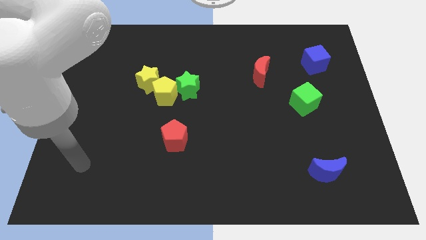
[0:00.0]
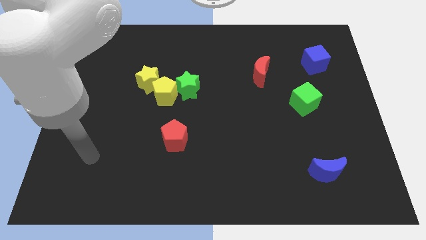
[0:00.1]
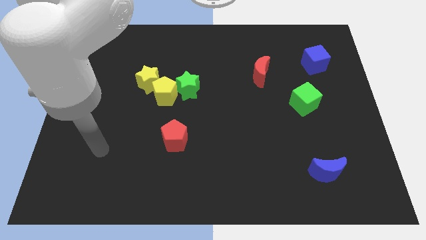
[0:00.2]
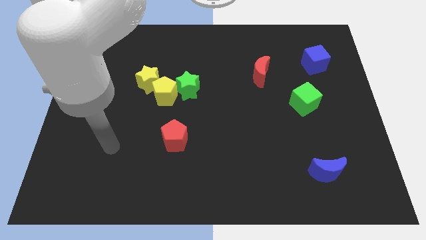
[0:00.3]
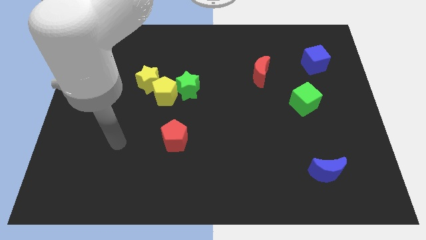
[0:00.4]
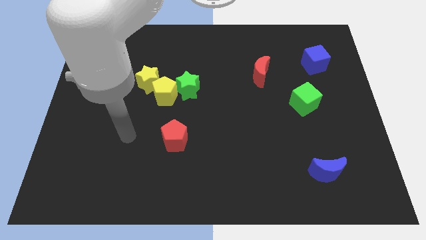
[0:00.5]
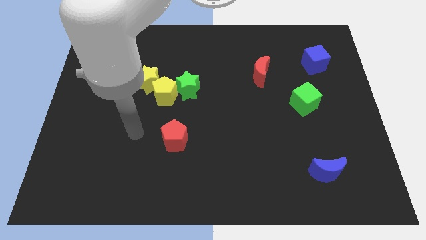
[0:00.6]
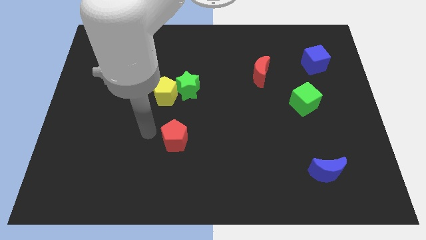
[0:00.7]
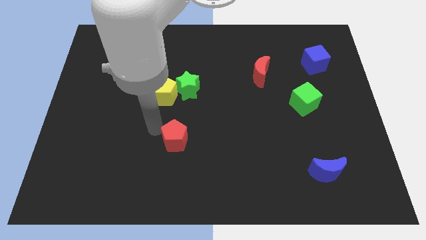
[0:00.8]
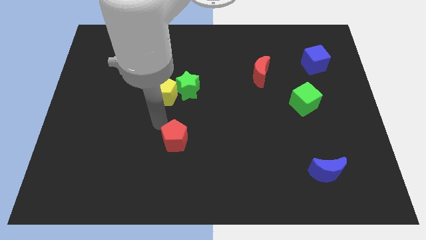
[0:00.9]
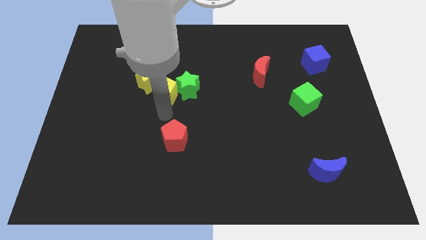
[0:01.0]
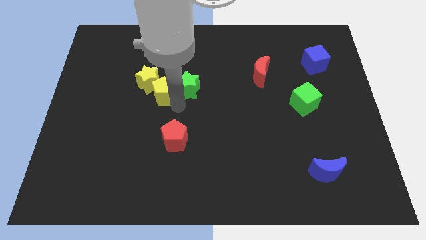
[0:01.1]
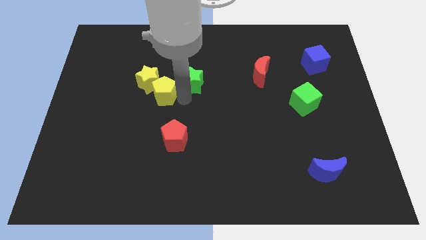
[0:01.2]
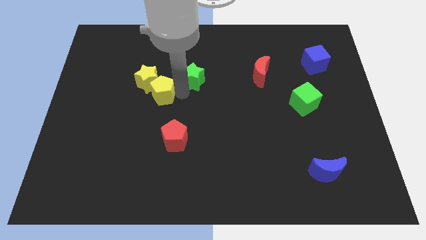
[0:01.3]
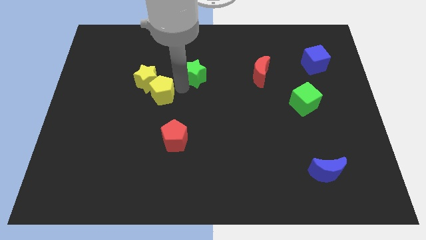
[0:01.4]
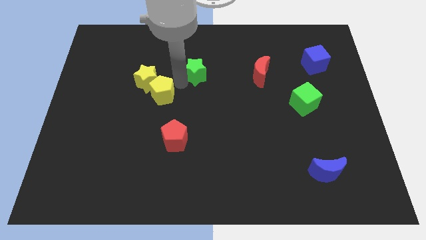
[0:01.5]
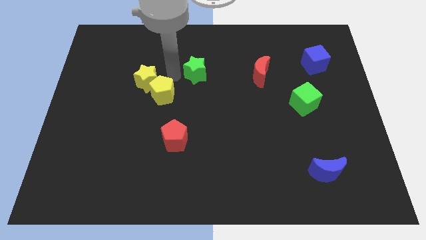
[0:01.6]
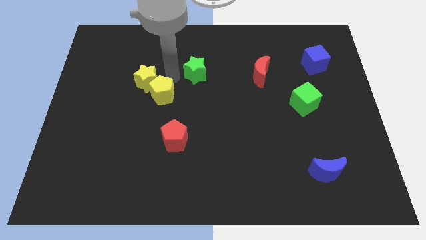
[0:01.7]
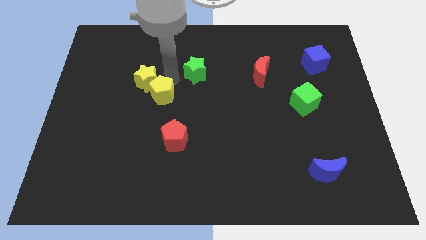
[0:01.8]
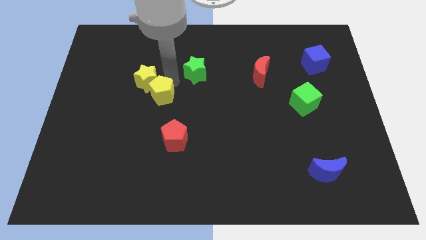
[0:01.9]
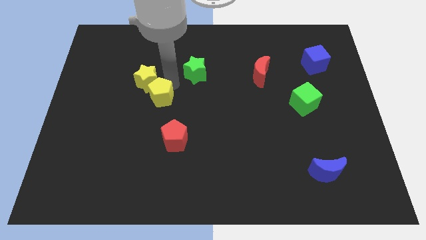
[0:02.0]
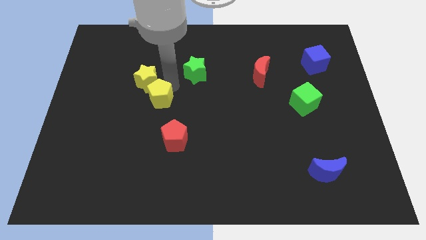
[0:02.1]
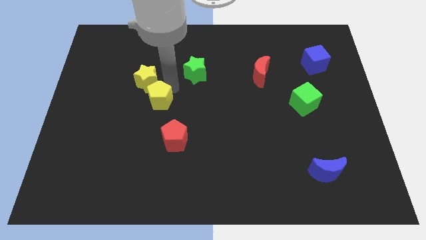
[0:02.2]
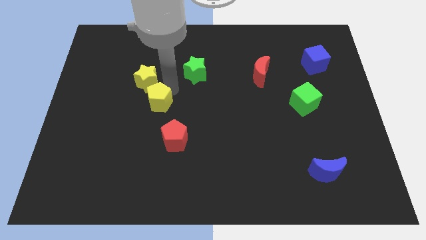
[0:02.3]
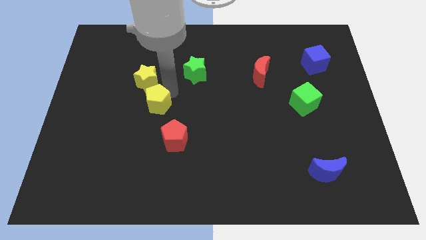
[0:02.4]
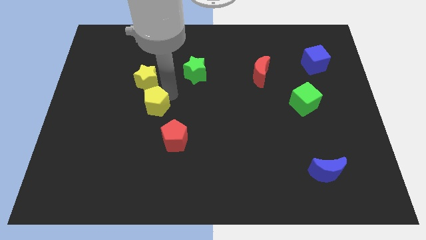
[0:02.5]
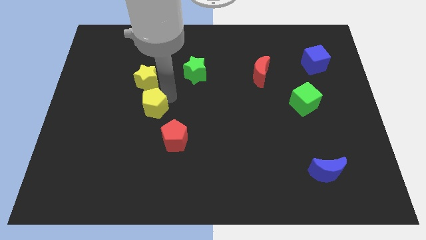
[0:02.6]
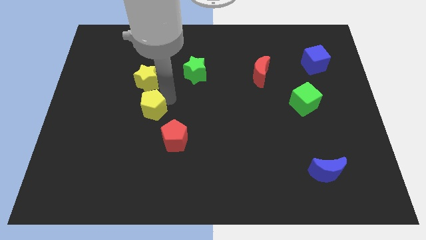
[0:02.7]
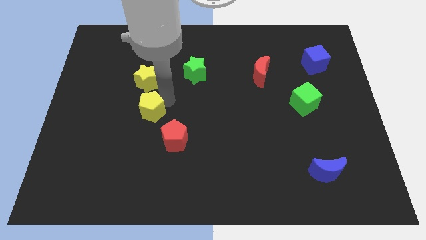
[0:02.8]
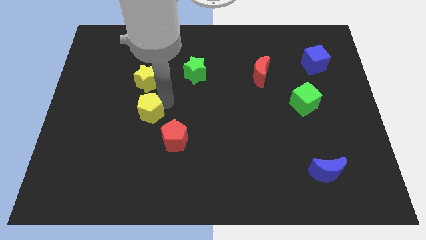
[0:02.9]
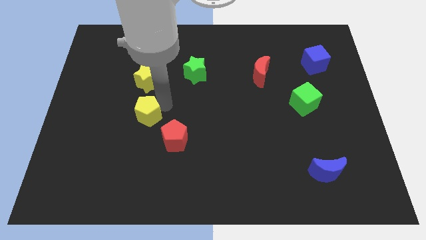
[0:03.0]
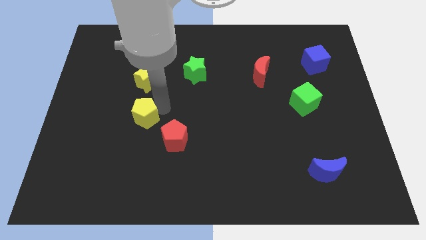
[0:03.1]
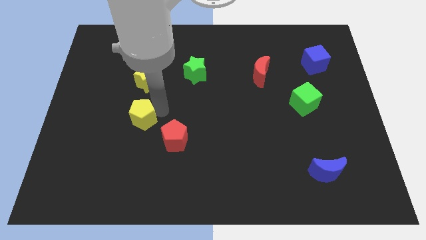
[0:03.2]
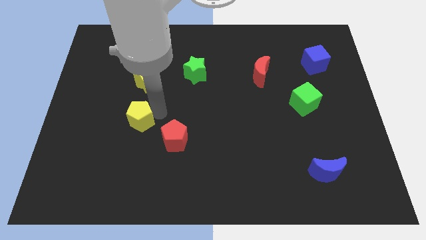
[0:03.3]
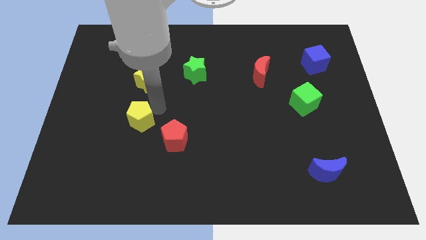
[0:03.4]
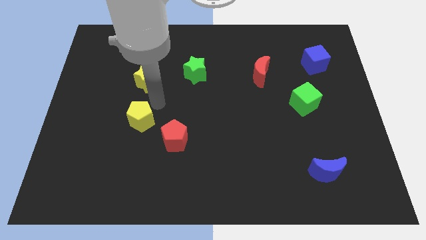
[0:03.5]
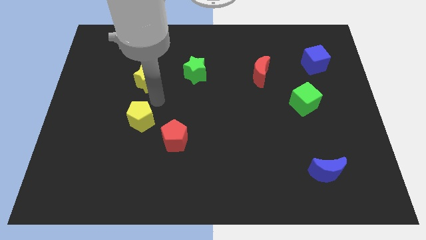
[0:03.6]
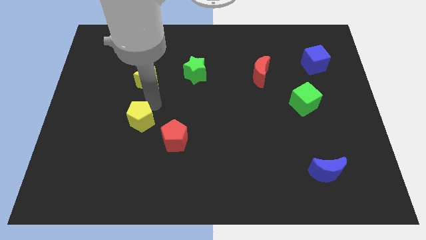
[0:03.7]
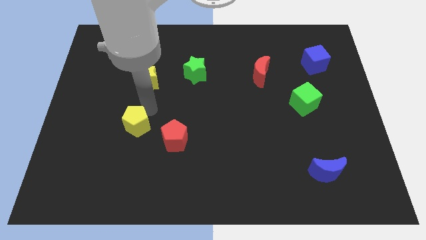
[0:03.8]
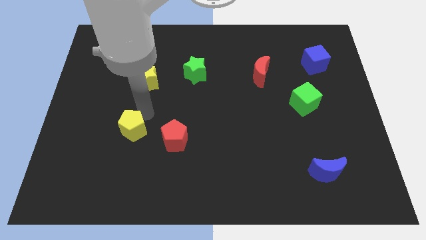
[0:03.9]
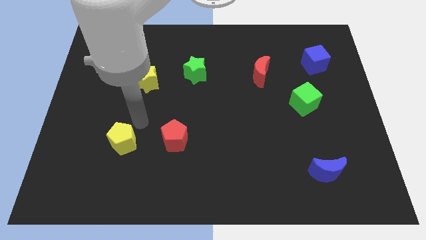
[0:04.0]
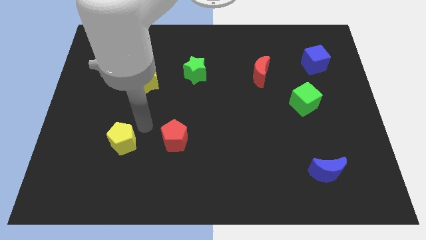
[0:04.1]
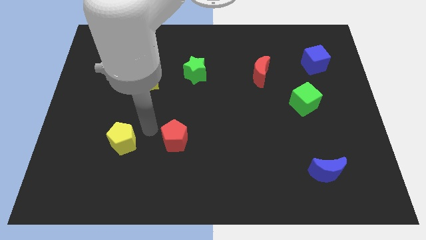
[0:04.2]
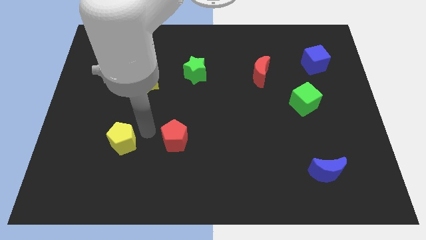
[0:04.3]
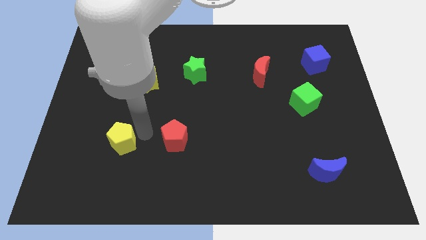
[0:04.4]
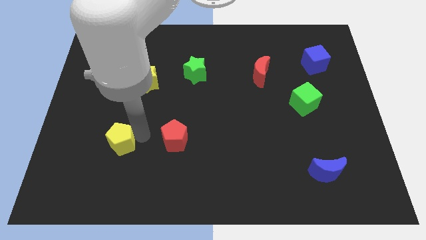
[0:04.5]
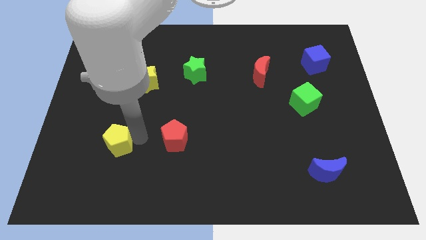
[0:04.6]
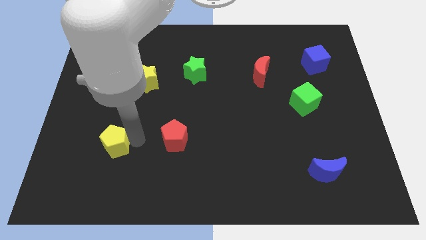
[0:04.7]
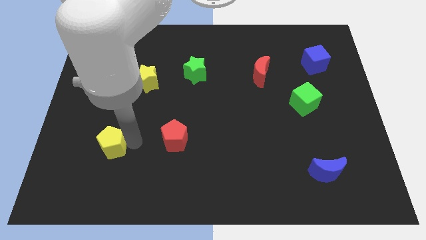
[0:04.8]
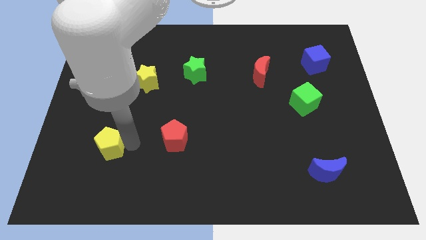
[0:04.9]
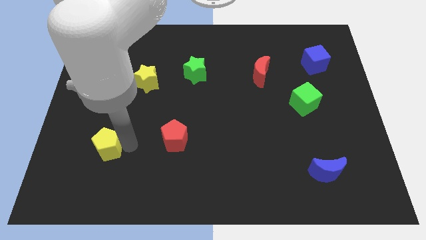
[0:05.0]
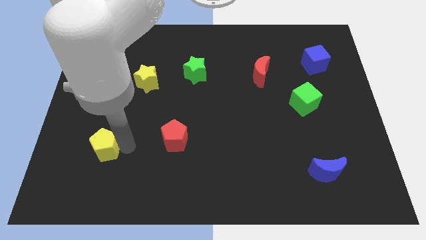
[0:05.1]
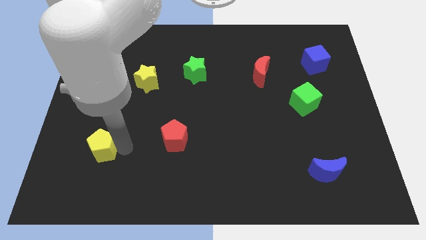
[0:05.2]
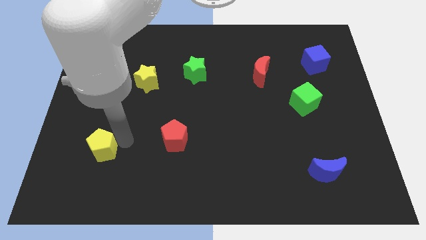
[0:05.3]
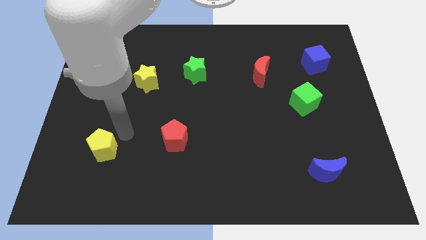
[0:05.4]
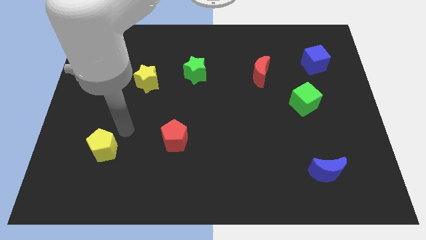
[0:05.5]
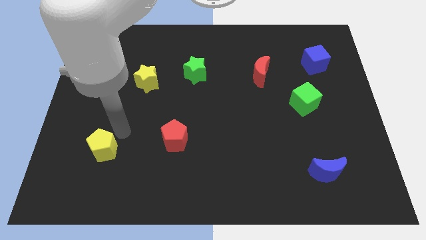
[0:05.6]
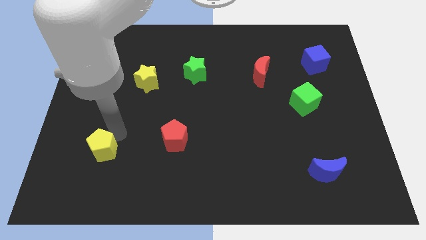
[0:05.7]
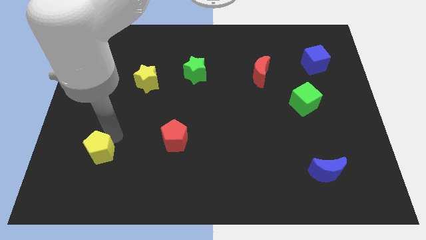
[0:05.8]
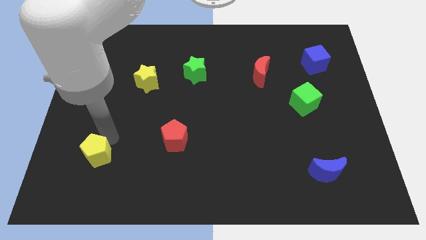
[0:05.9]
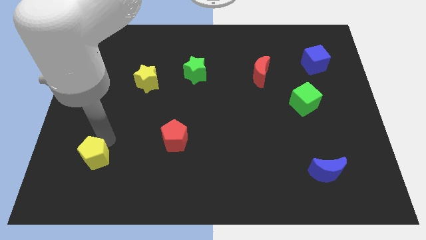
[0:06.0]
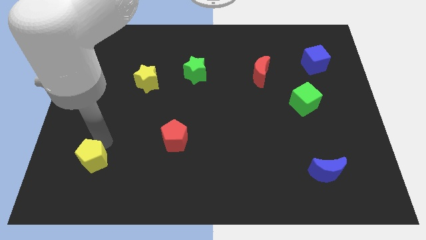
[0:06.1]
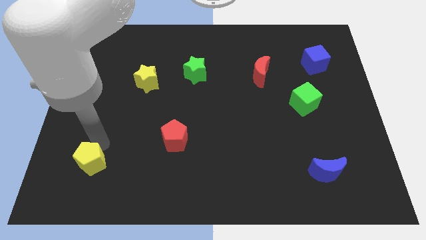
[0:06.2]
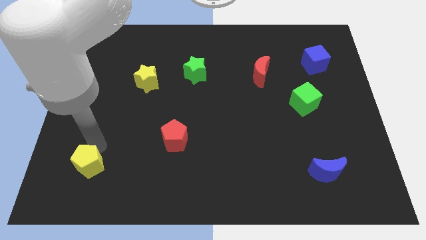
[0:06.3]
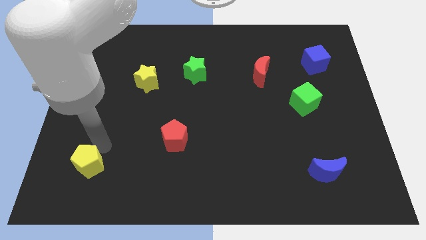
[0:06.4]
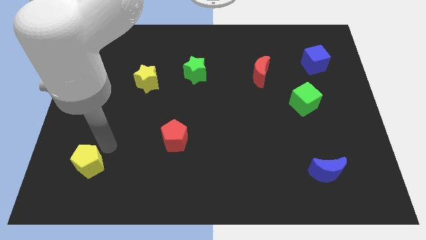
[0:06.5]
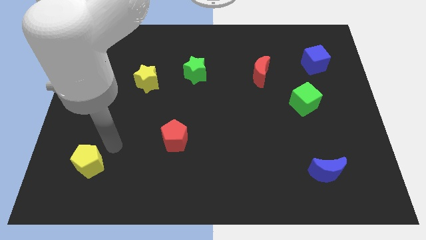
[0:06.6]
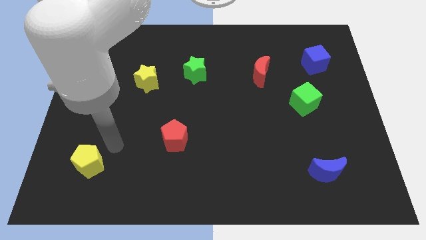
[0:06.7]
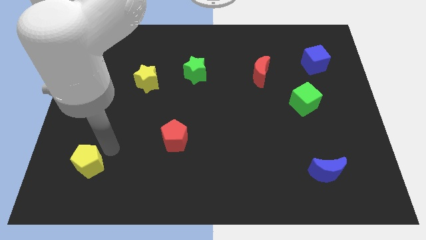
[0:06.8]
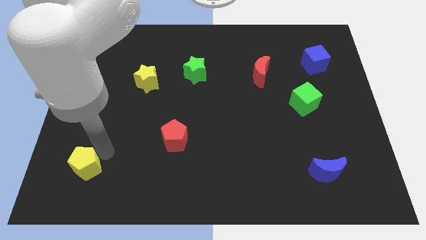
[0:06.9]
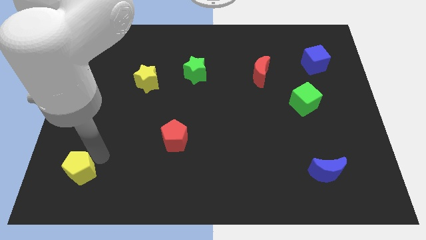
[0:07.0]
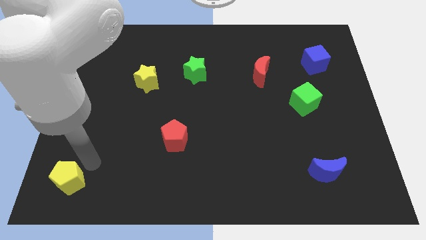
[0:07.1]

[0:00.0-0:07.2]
put the yellow pentagon to the bottom left corner

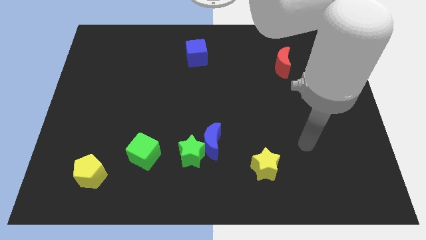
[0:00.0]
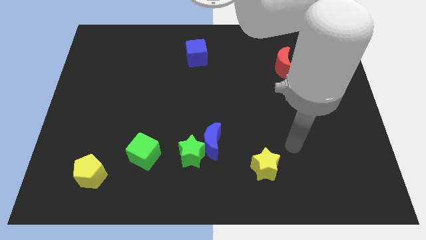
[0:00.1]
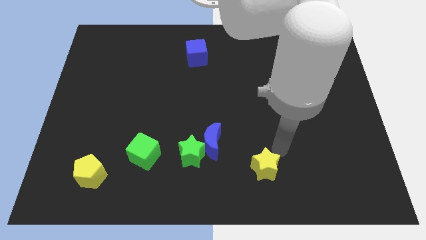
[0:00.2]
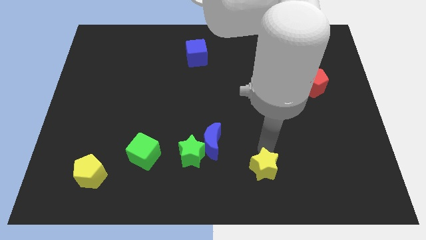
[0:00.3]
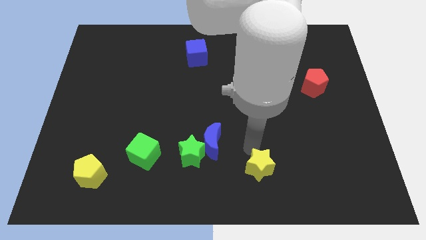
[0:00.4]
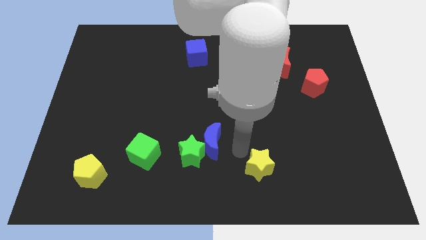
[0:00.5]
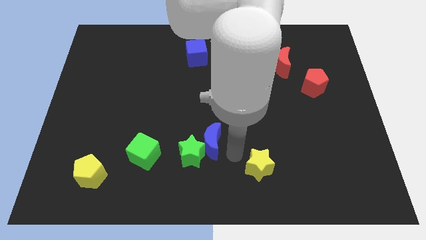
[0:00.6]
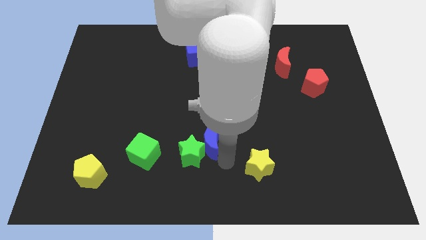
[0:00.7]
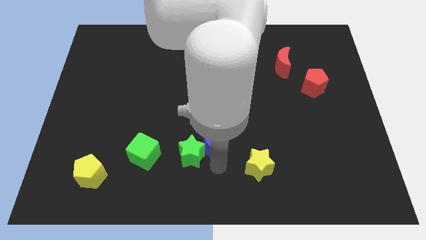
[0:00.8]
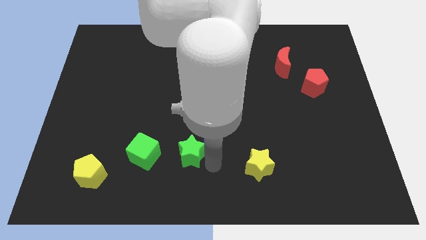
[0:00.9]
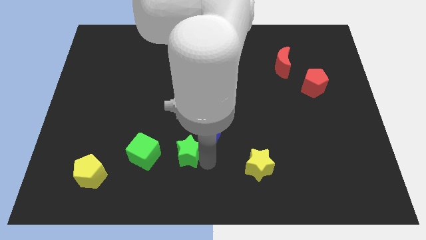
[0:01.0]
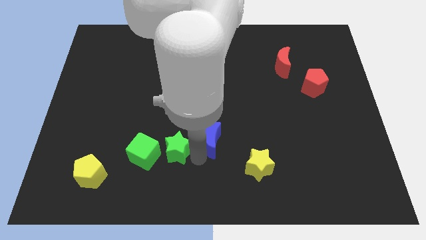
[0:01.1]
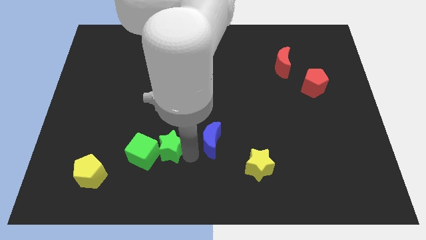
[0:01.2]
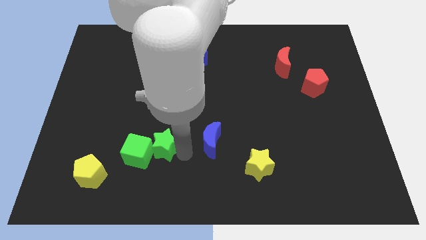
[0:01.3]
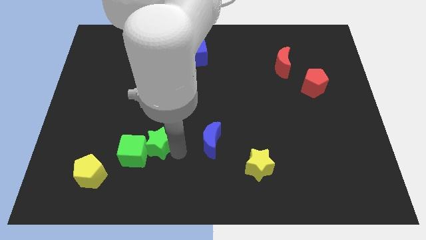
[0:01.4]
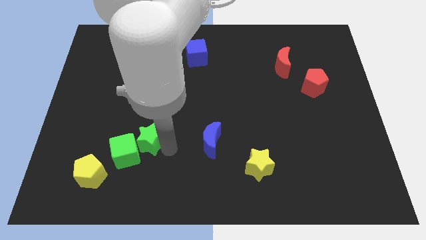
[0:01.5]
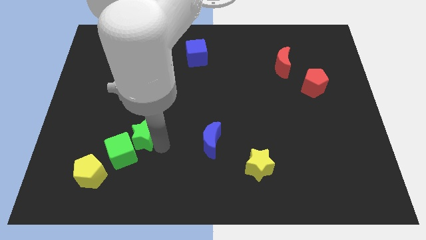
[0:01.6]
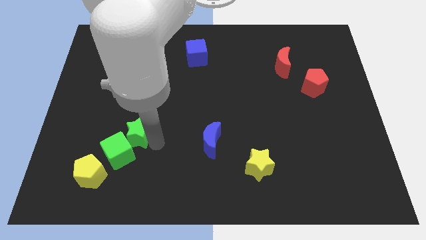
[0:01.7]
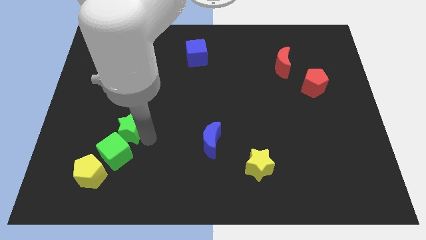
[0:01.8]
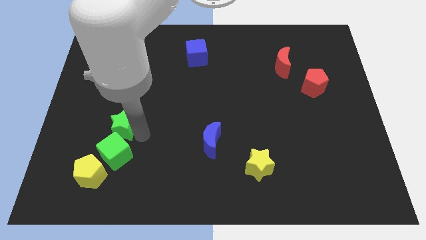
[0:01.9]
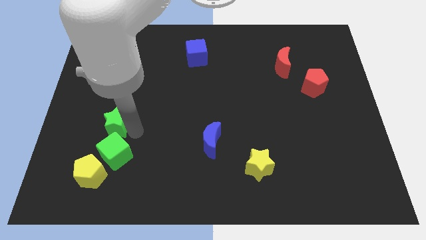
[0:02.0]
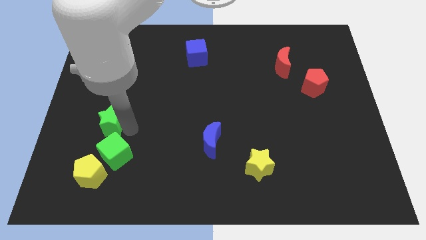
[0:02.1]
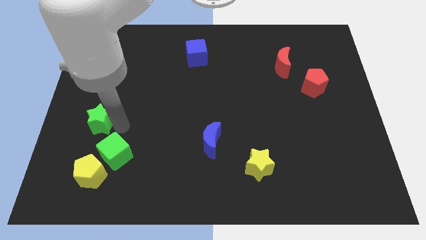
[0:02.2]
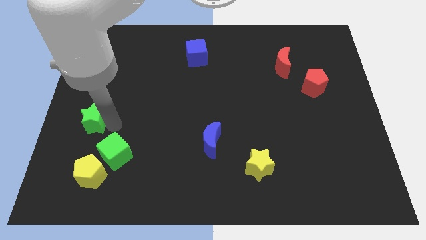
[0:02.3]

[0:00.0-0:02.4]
move the green star to the left side of the board
